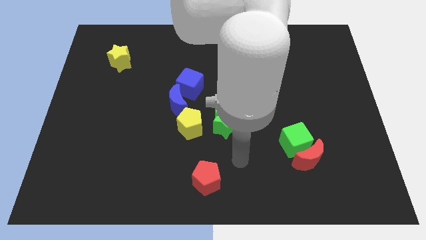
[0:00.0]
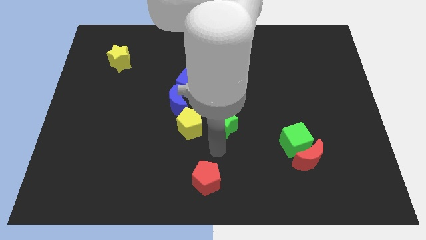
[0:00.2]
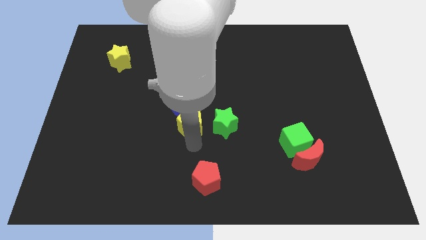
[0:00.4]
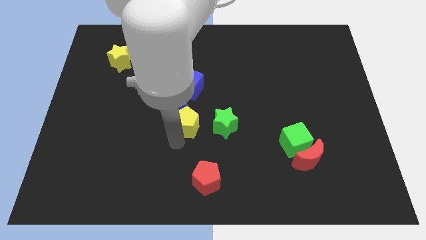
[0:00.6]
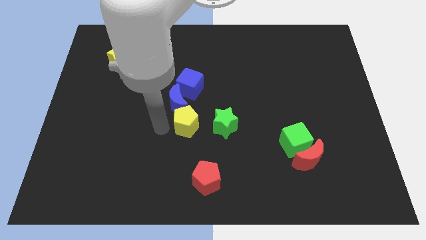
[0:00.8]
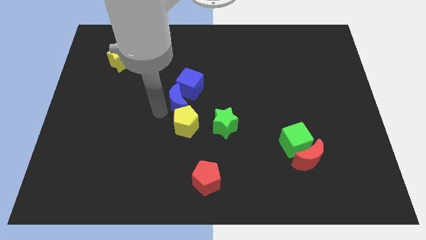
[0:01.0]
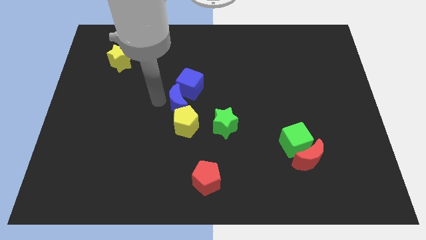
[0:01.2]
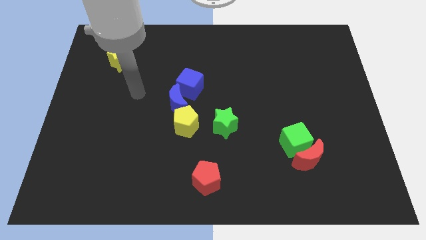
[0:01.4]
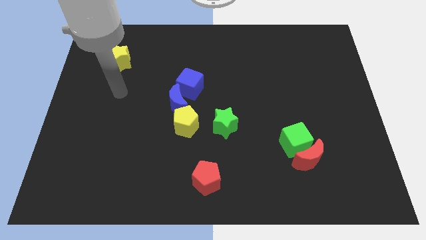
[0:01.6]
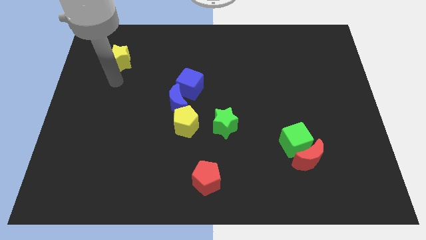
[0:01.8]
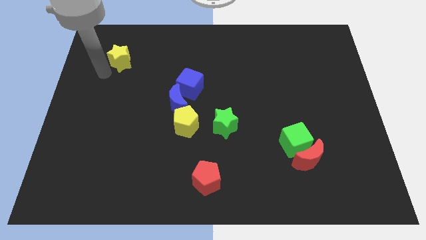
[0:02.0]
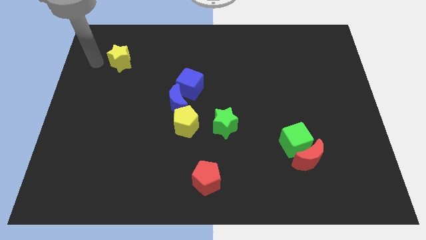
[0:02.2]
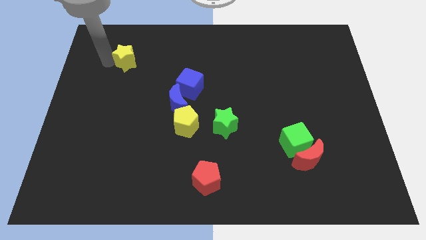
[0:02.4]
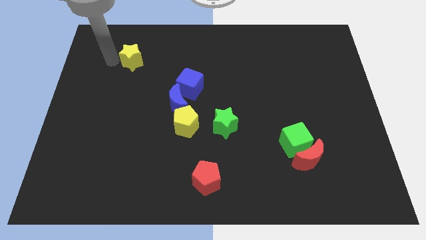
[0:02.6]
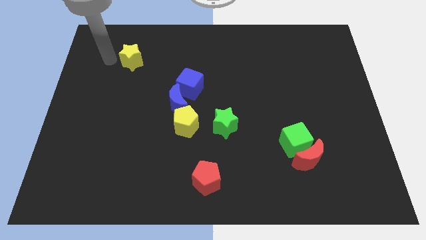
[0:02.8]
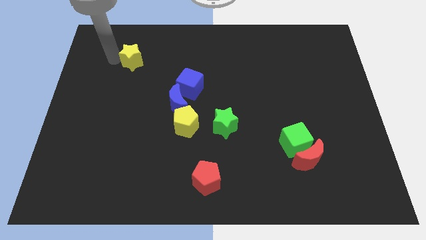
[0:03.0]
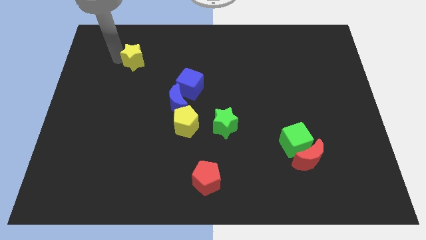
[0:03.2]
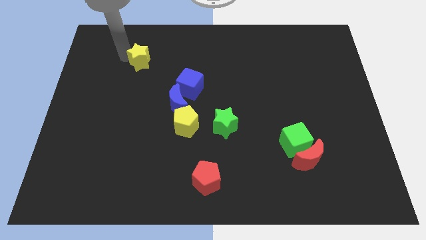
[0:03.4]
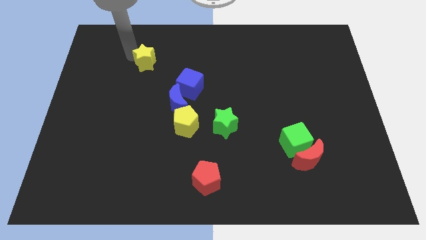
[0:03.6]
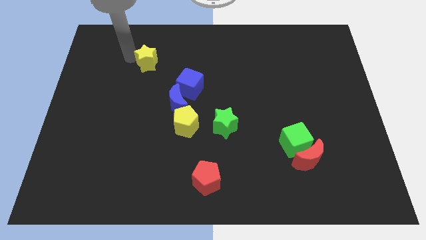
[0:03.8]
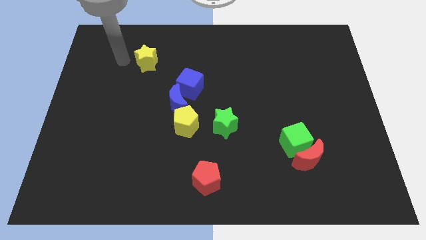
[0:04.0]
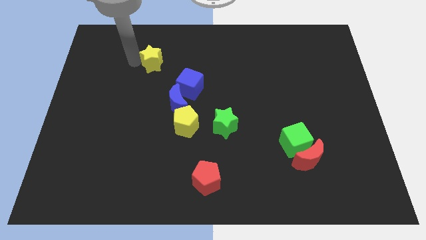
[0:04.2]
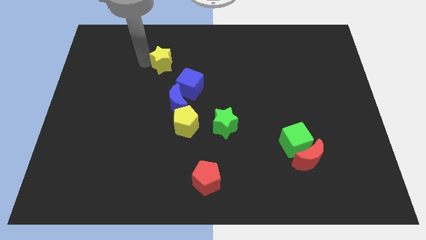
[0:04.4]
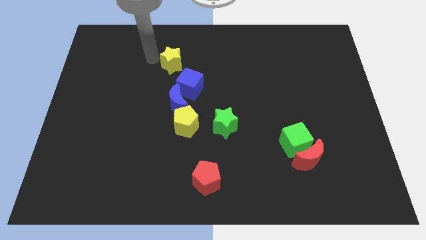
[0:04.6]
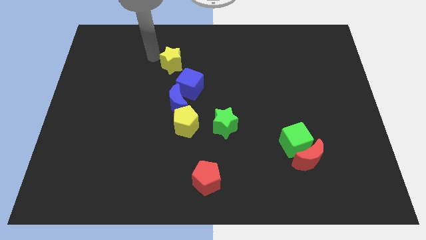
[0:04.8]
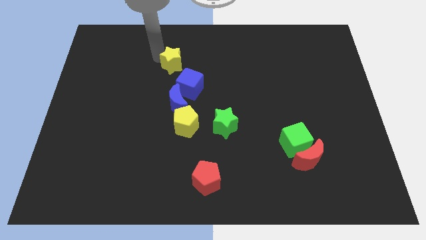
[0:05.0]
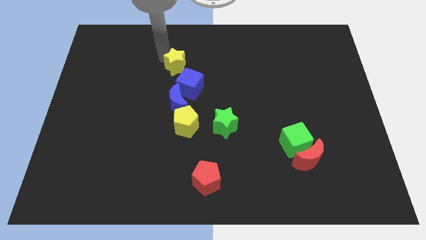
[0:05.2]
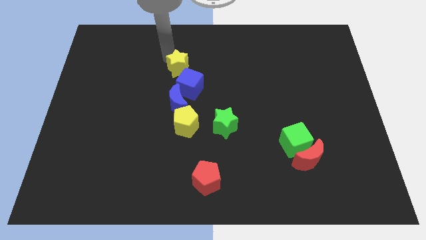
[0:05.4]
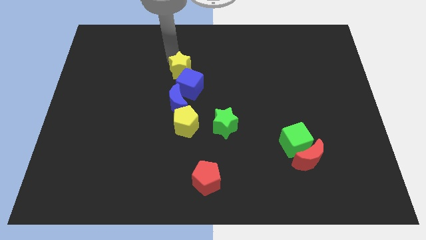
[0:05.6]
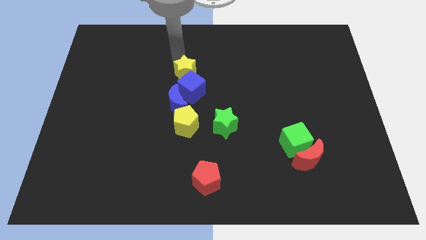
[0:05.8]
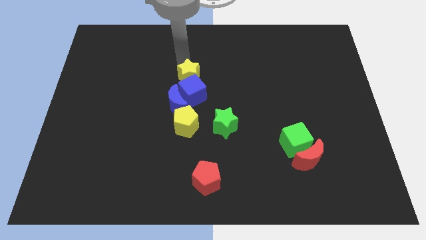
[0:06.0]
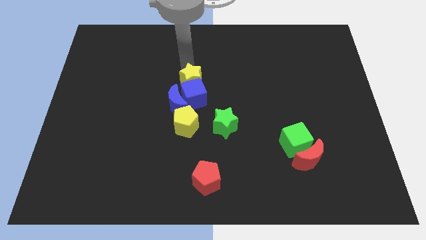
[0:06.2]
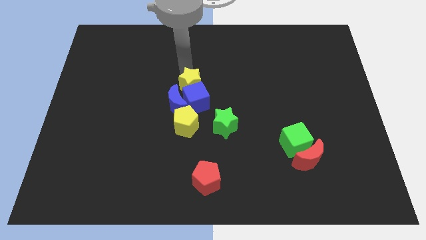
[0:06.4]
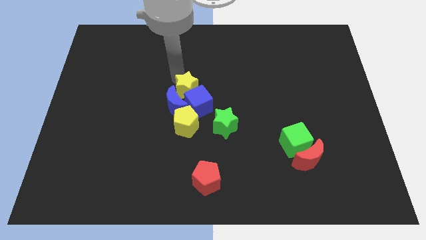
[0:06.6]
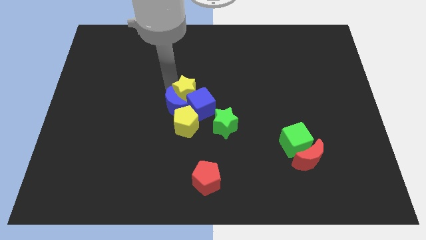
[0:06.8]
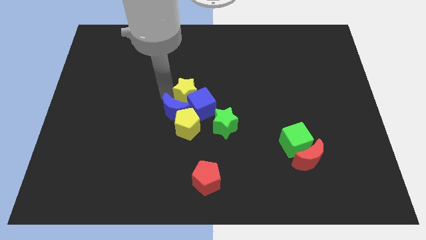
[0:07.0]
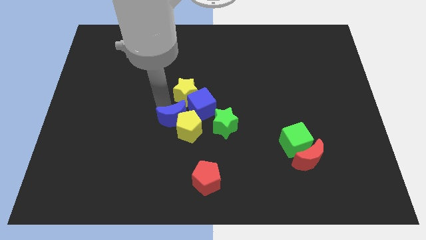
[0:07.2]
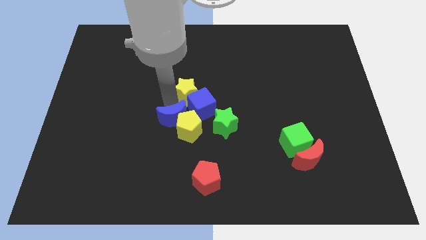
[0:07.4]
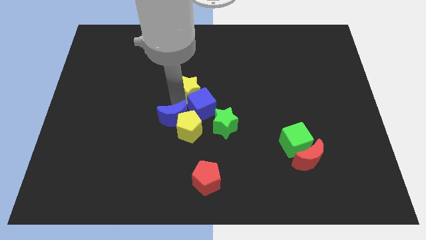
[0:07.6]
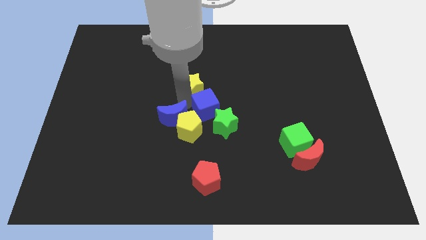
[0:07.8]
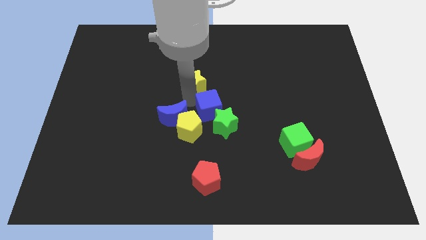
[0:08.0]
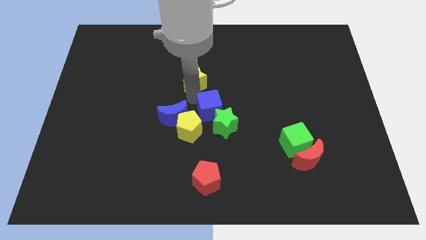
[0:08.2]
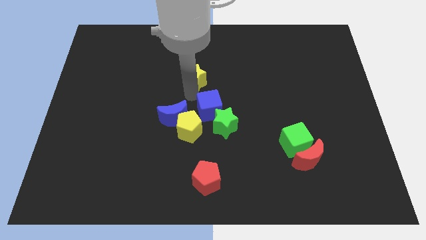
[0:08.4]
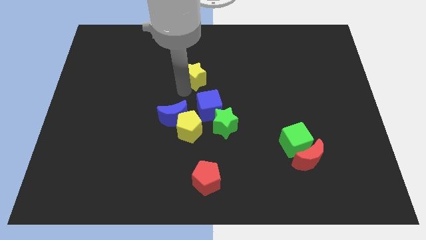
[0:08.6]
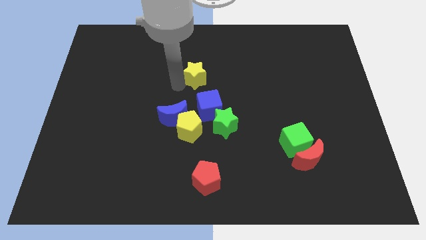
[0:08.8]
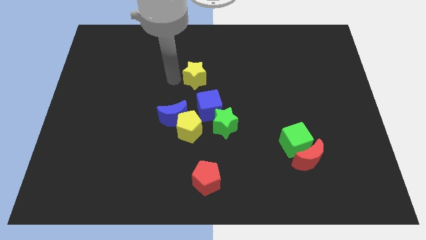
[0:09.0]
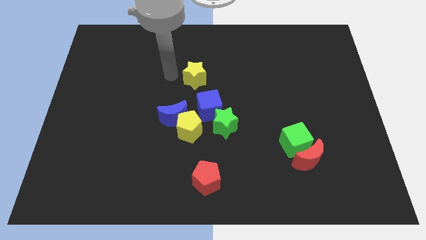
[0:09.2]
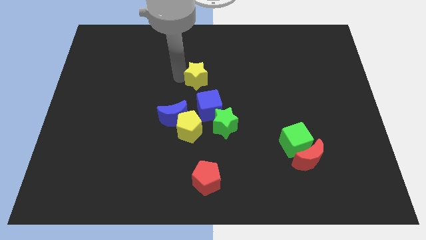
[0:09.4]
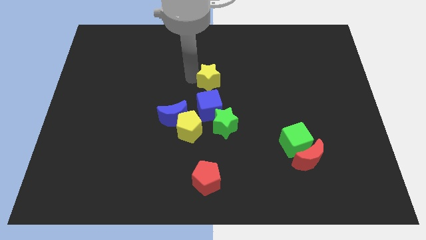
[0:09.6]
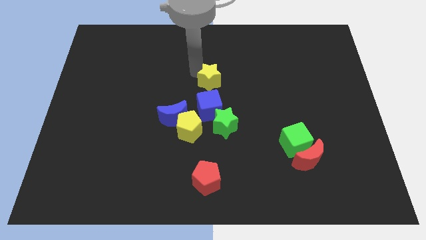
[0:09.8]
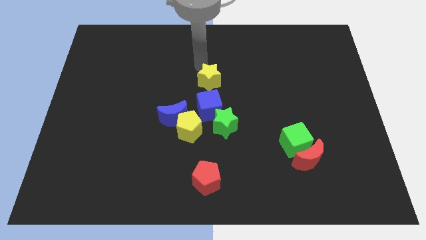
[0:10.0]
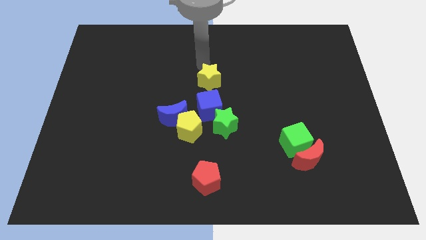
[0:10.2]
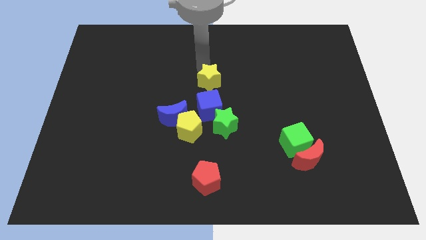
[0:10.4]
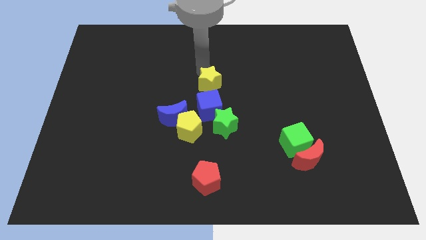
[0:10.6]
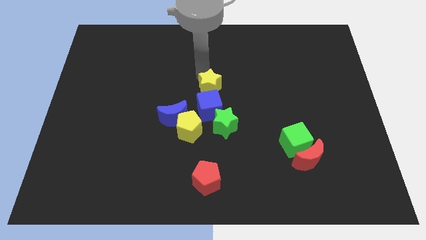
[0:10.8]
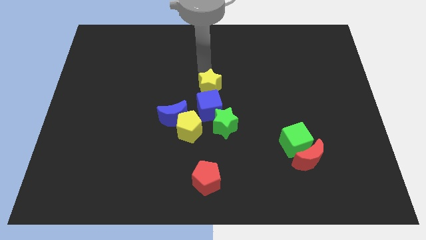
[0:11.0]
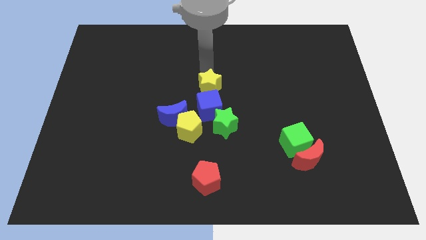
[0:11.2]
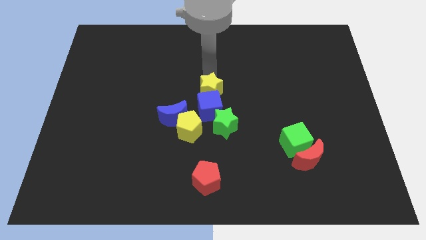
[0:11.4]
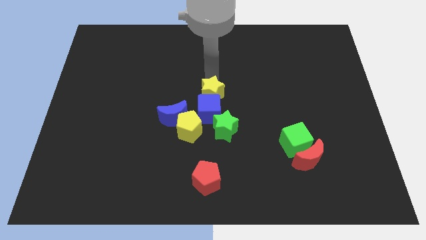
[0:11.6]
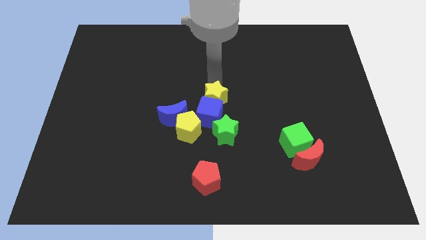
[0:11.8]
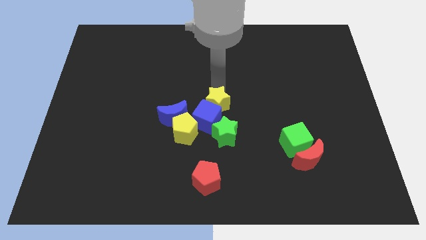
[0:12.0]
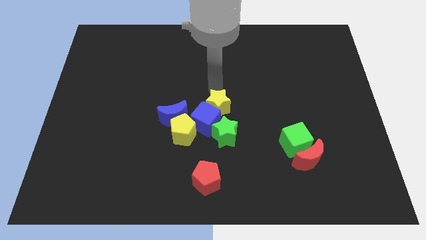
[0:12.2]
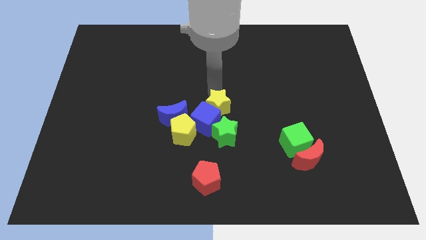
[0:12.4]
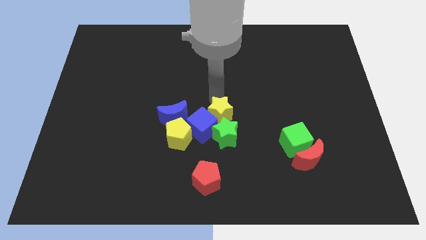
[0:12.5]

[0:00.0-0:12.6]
put the yellow star close to the green star

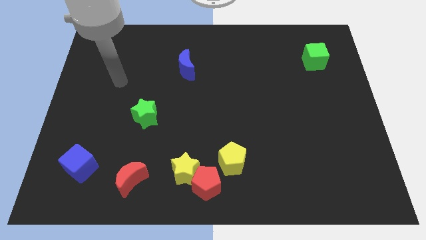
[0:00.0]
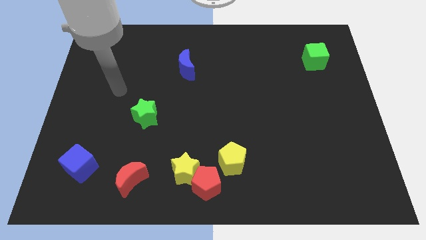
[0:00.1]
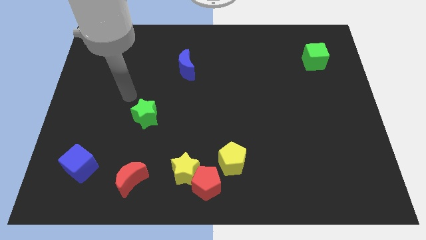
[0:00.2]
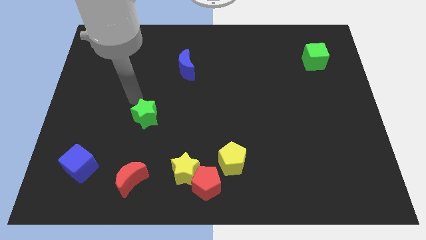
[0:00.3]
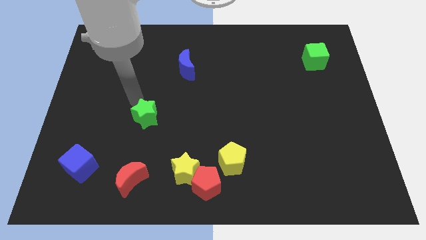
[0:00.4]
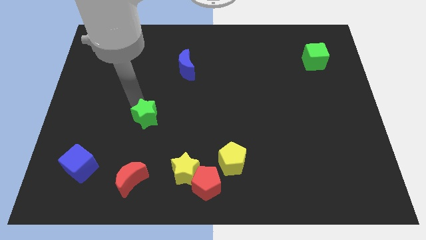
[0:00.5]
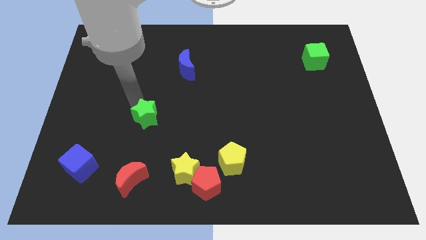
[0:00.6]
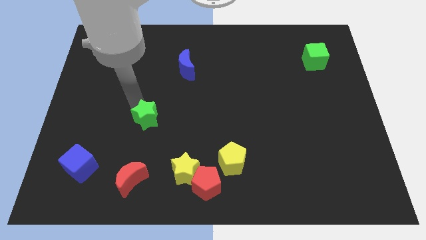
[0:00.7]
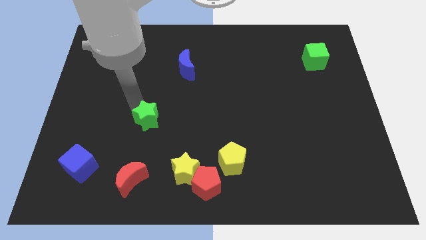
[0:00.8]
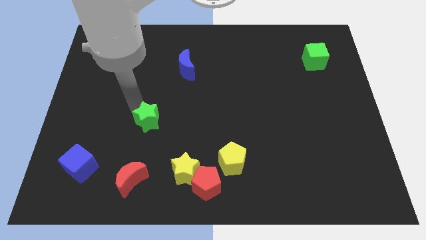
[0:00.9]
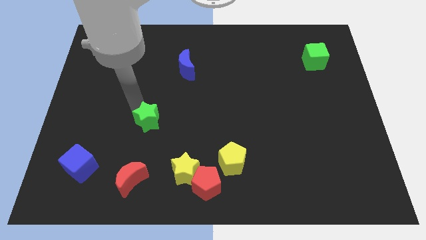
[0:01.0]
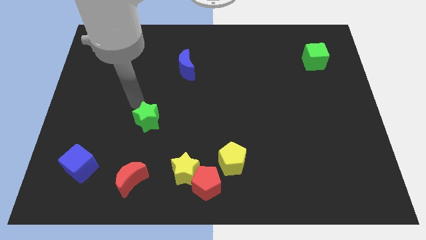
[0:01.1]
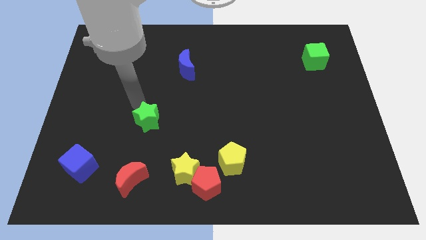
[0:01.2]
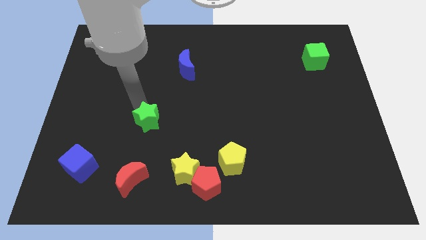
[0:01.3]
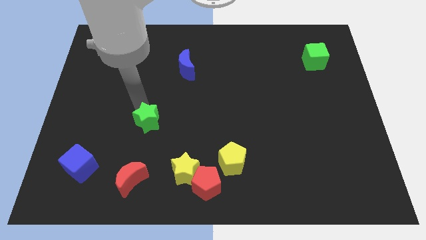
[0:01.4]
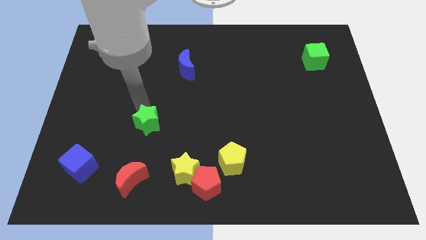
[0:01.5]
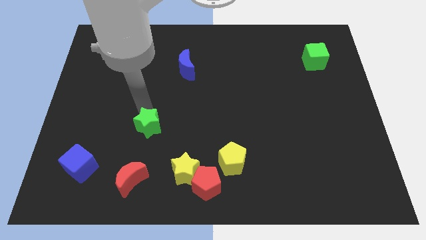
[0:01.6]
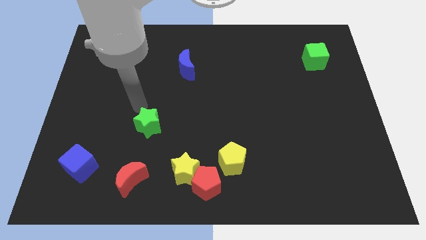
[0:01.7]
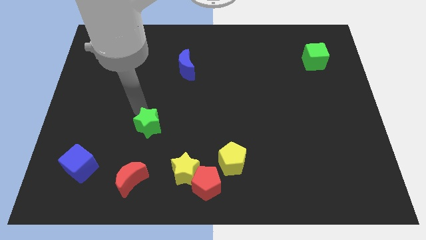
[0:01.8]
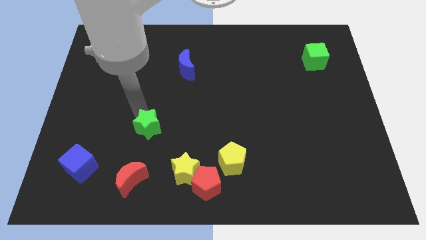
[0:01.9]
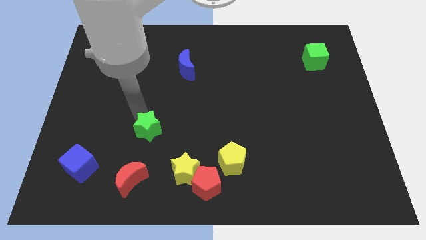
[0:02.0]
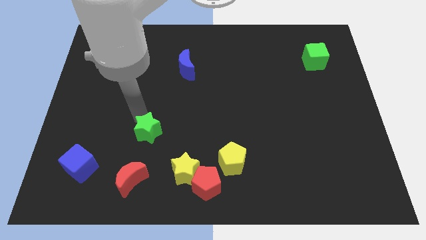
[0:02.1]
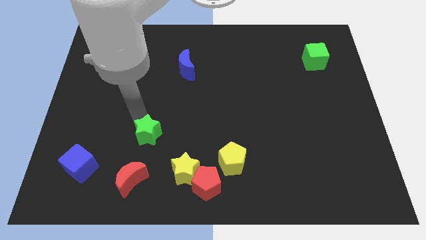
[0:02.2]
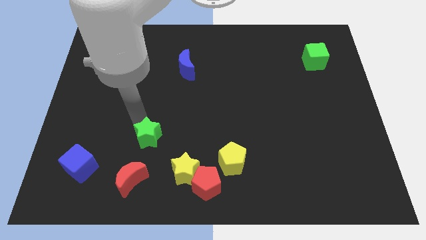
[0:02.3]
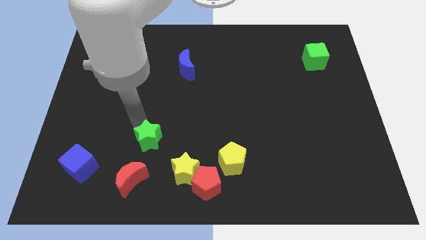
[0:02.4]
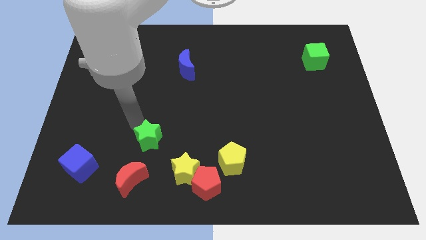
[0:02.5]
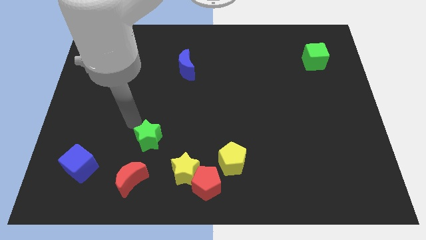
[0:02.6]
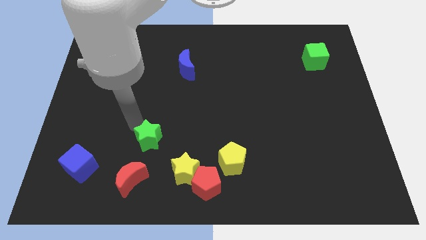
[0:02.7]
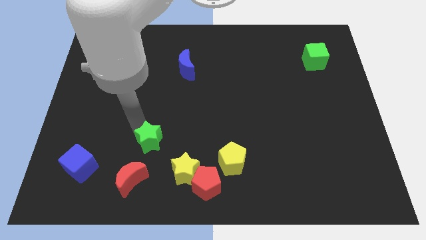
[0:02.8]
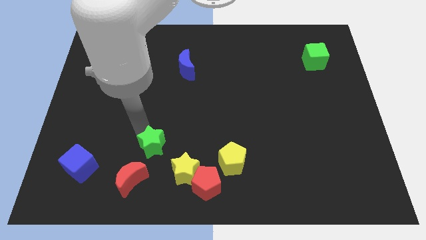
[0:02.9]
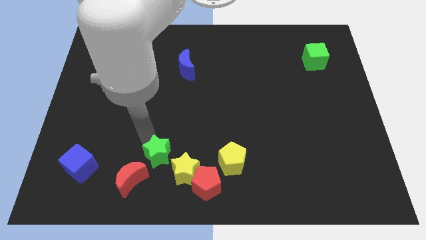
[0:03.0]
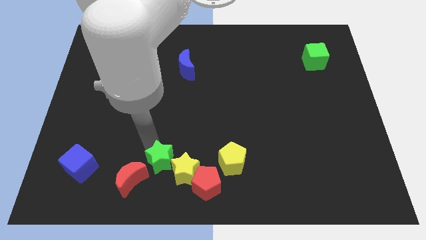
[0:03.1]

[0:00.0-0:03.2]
slide the green star next to the yellow star
